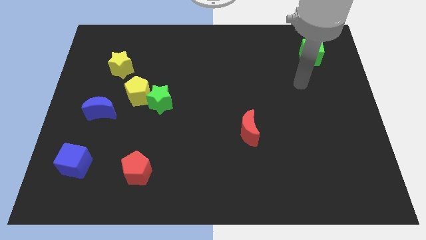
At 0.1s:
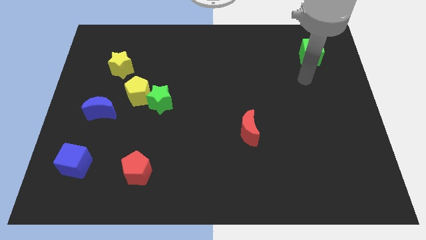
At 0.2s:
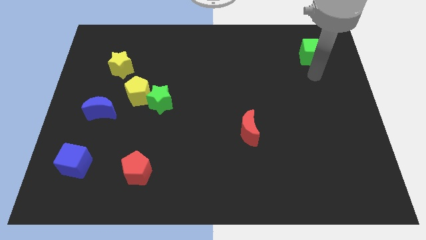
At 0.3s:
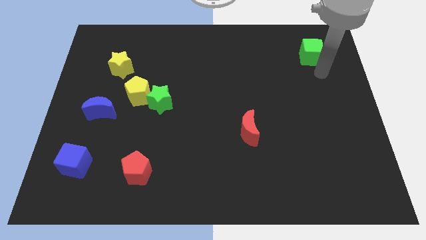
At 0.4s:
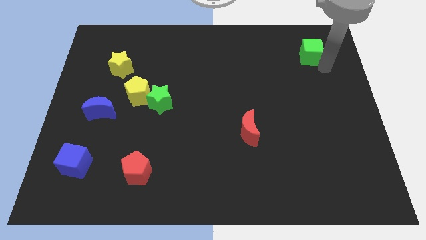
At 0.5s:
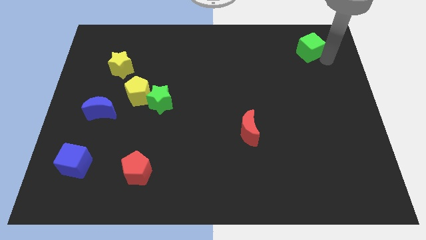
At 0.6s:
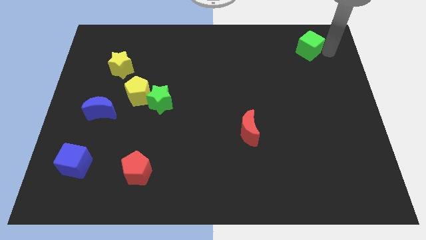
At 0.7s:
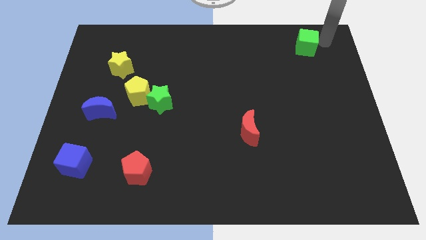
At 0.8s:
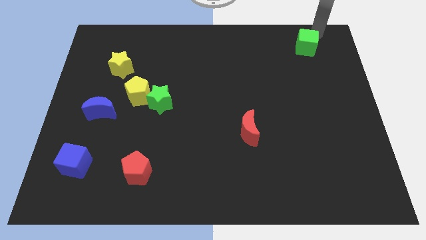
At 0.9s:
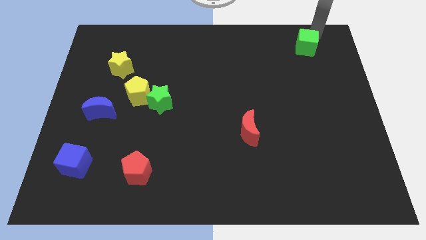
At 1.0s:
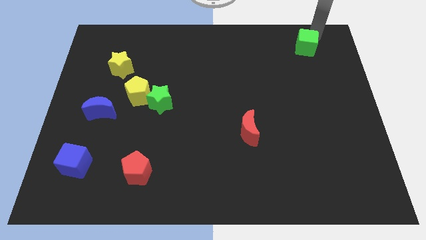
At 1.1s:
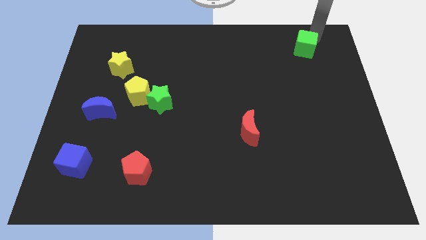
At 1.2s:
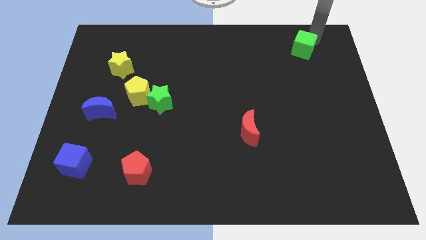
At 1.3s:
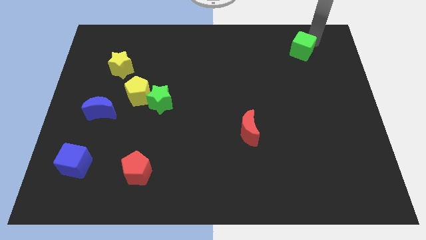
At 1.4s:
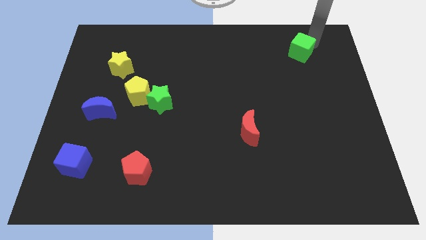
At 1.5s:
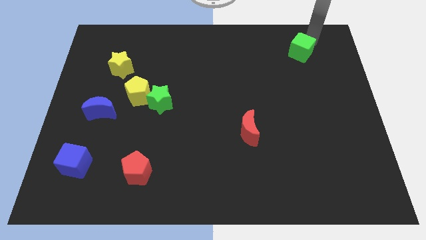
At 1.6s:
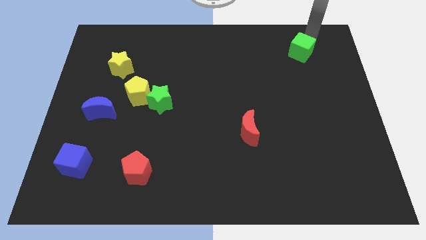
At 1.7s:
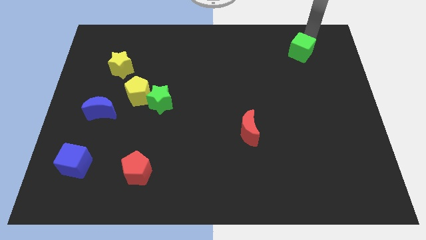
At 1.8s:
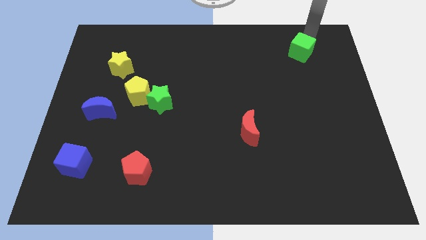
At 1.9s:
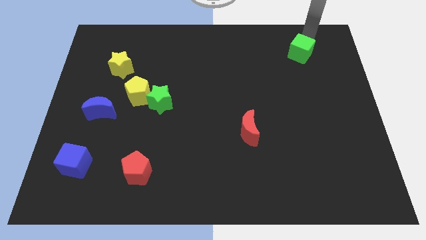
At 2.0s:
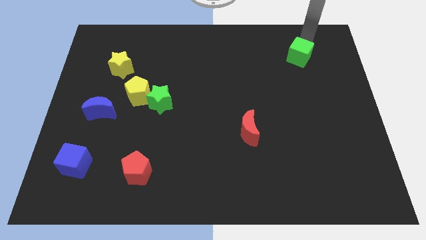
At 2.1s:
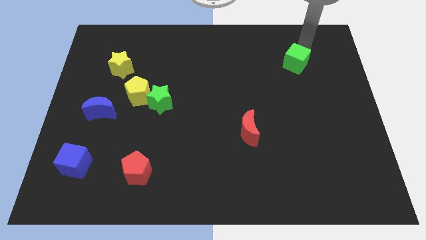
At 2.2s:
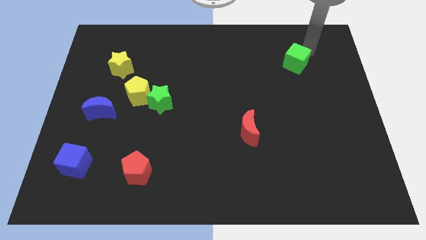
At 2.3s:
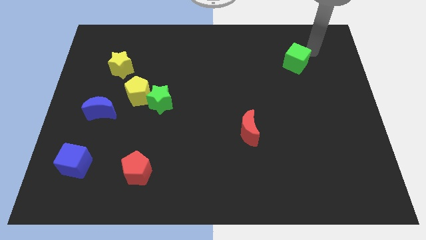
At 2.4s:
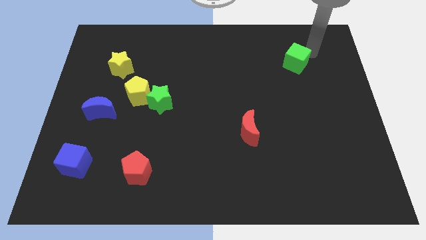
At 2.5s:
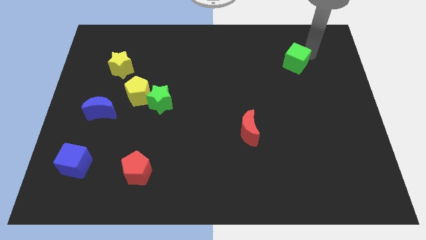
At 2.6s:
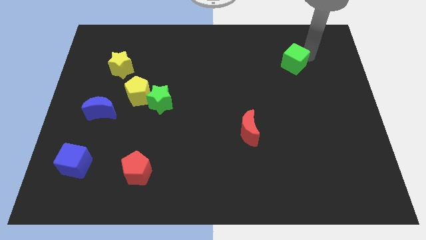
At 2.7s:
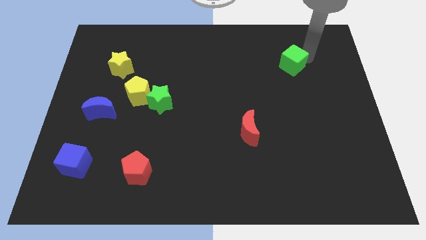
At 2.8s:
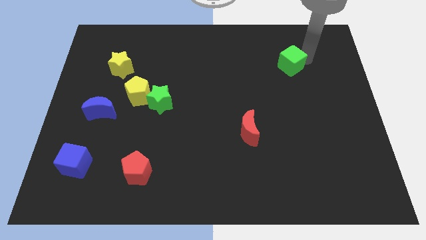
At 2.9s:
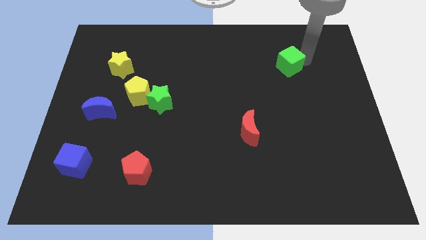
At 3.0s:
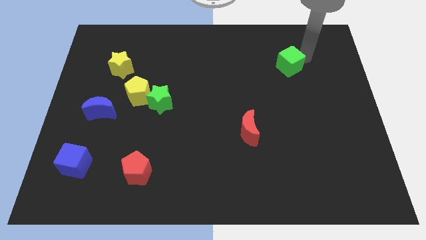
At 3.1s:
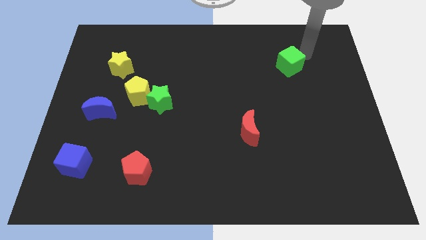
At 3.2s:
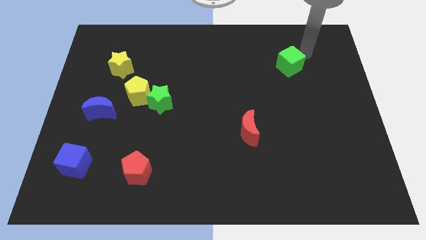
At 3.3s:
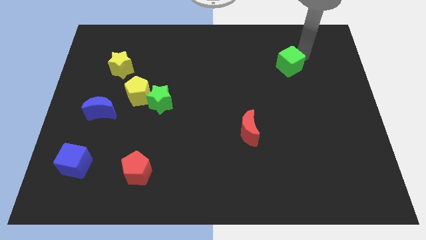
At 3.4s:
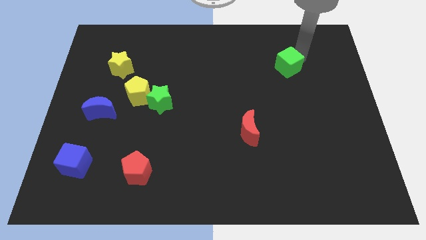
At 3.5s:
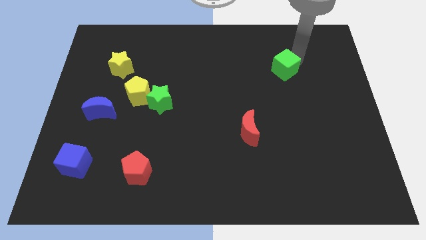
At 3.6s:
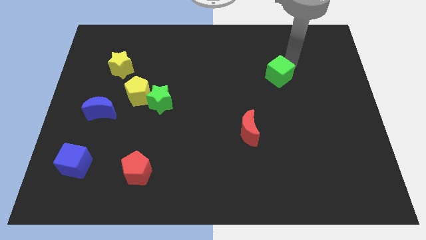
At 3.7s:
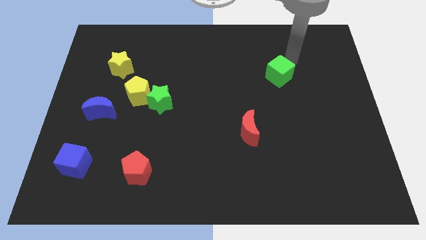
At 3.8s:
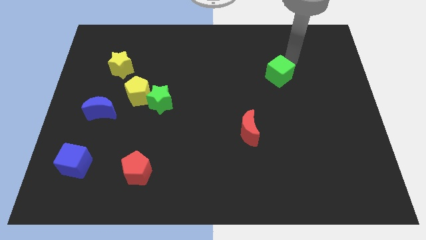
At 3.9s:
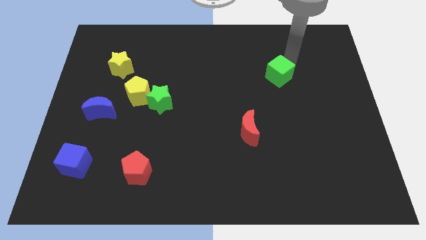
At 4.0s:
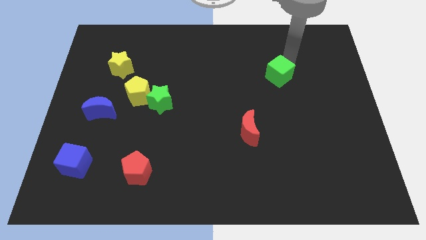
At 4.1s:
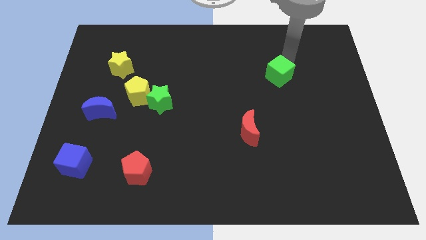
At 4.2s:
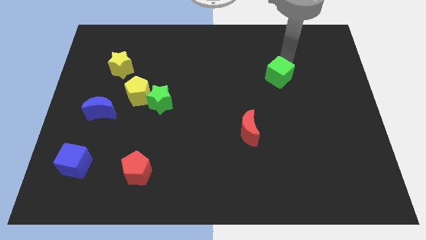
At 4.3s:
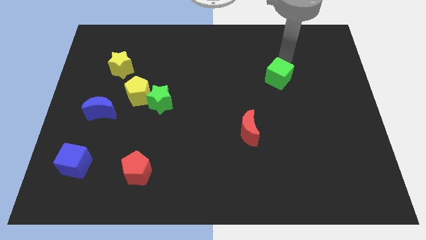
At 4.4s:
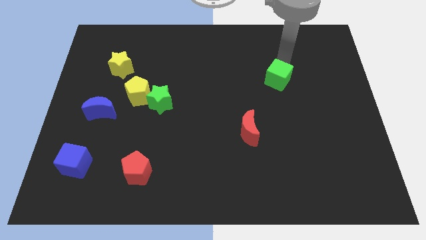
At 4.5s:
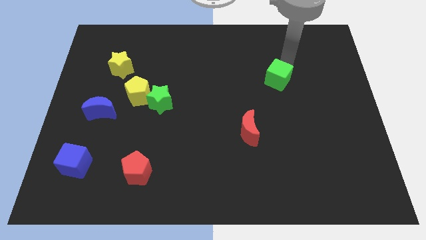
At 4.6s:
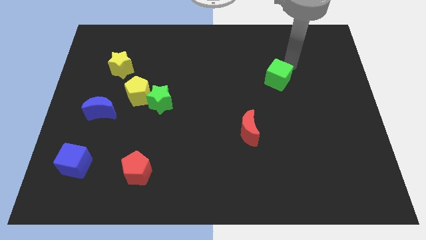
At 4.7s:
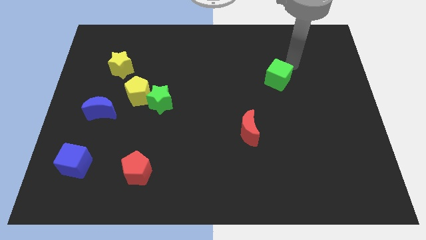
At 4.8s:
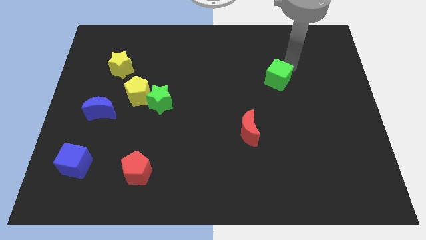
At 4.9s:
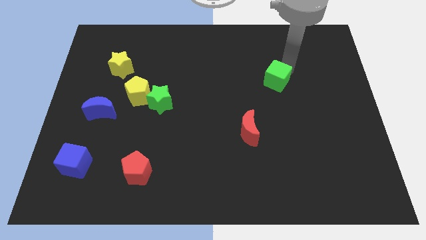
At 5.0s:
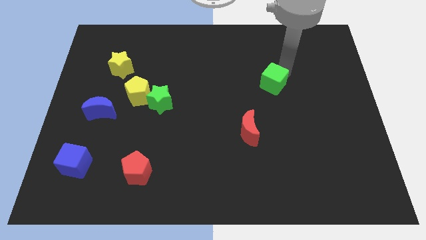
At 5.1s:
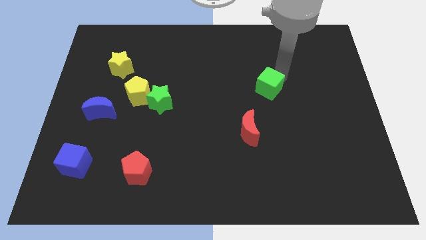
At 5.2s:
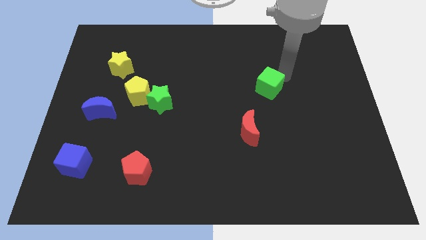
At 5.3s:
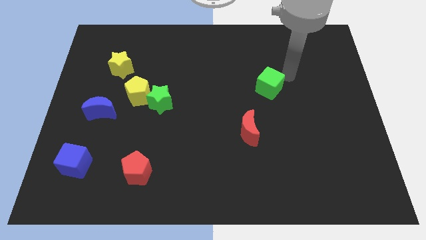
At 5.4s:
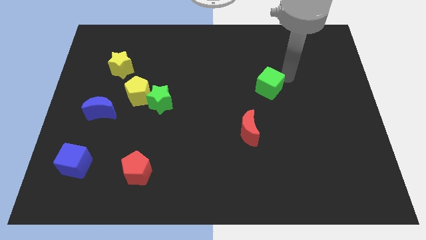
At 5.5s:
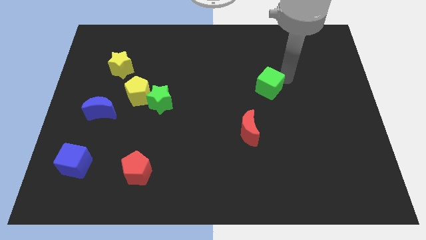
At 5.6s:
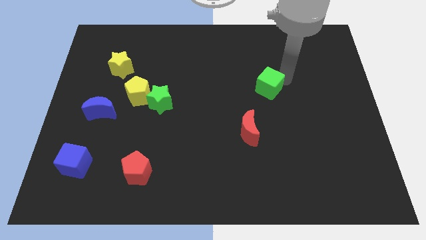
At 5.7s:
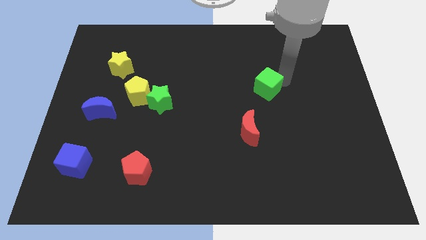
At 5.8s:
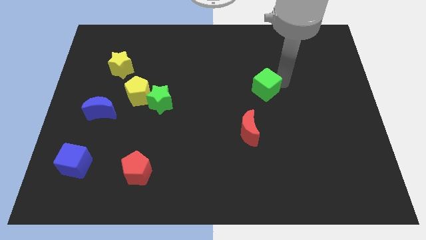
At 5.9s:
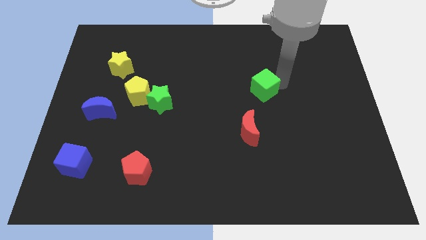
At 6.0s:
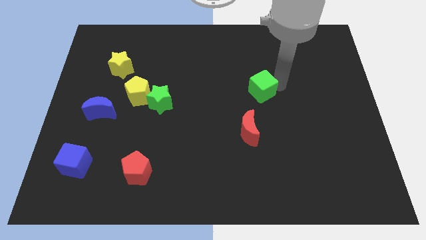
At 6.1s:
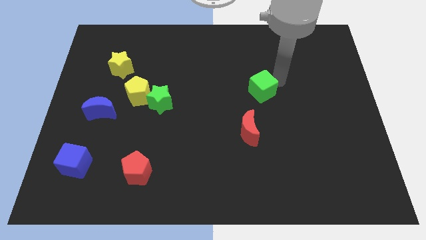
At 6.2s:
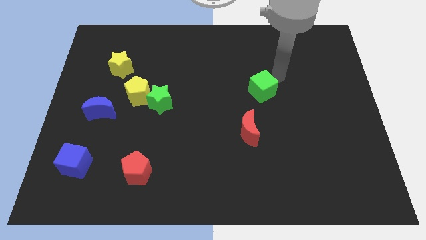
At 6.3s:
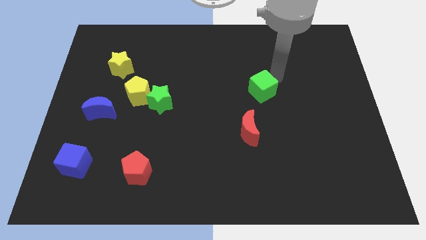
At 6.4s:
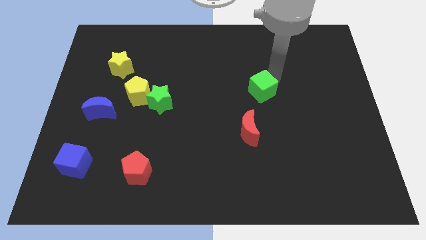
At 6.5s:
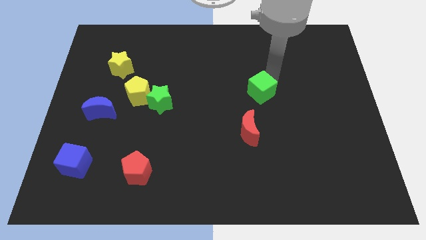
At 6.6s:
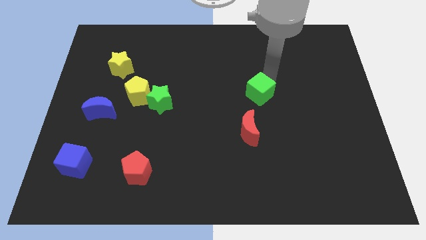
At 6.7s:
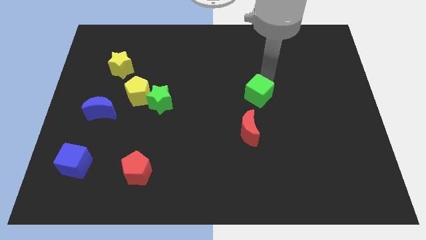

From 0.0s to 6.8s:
push the green cube down and to the left diagonally

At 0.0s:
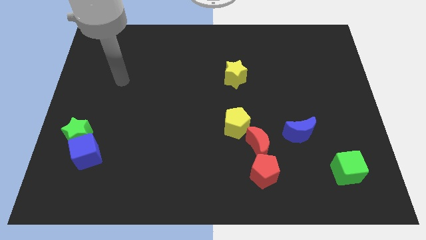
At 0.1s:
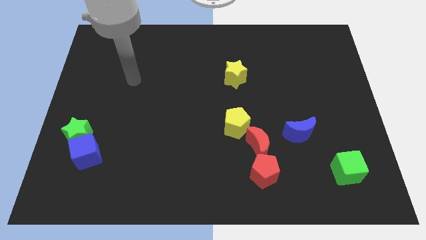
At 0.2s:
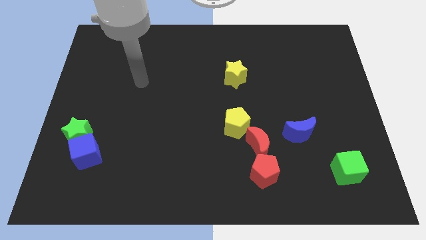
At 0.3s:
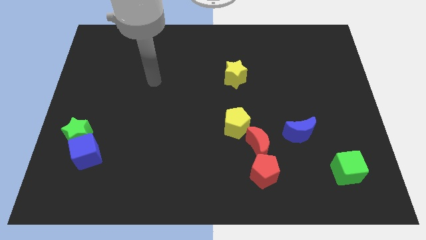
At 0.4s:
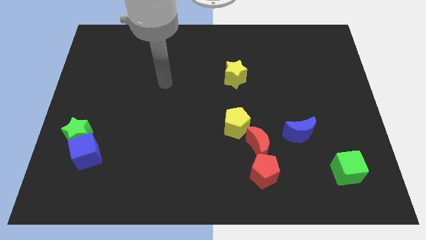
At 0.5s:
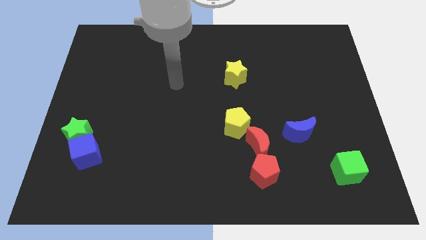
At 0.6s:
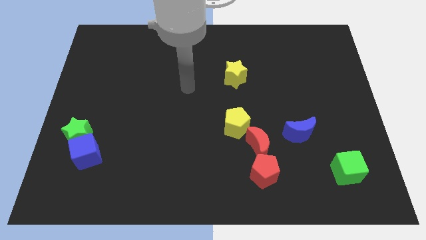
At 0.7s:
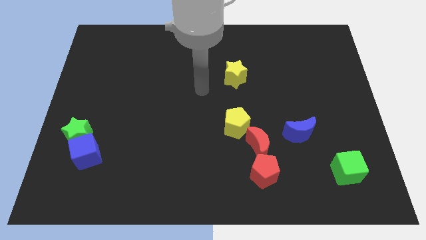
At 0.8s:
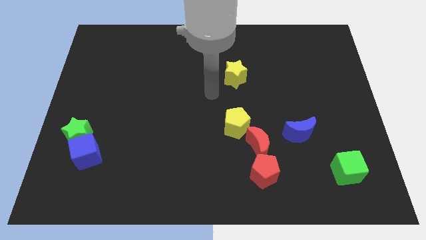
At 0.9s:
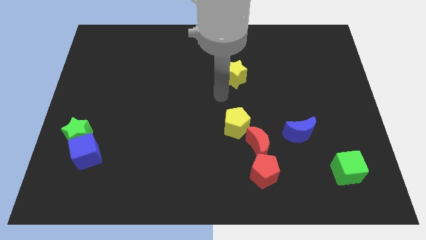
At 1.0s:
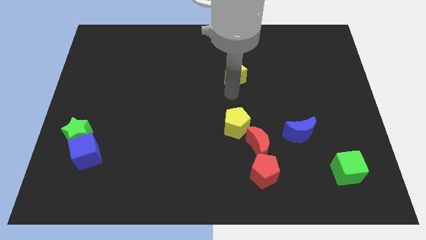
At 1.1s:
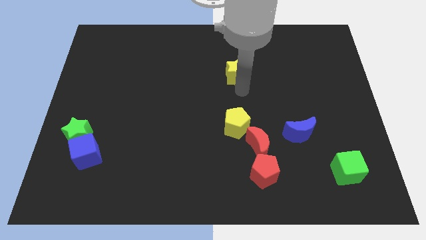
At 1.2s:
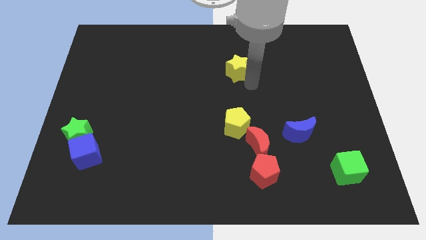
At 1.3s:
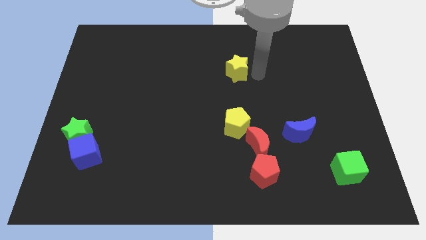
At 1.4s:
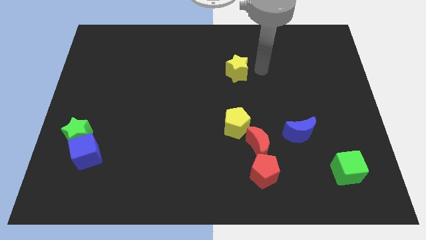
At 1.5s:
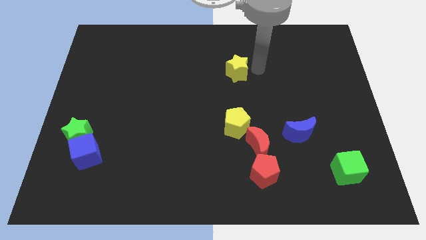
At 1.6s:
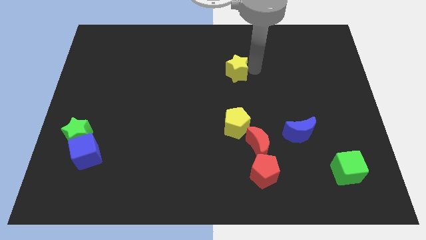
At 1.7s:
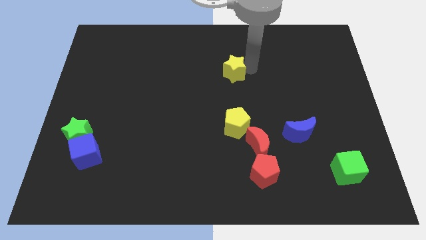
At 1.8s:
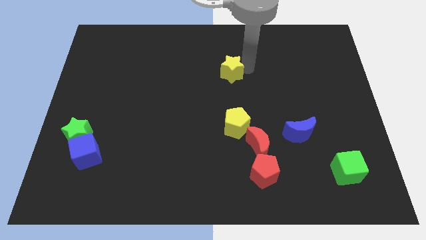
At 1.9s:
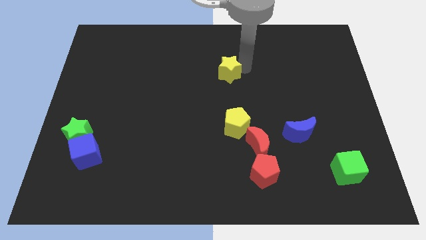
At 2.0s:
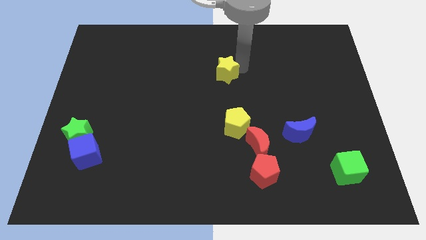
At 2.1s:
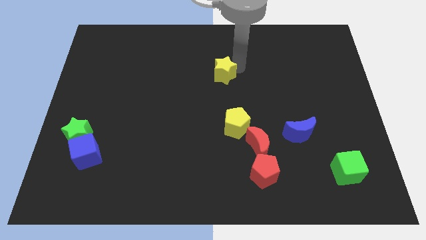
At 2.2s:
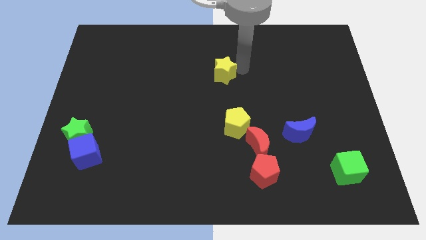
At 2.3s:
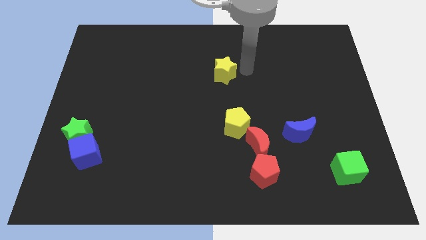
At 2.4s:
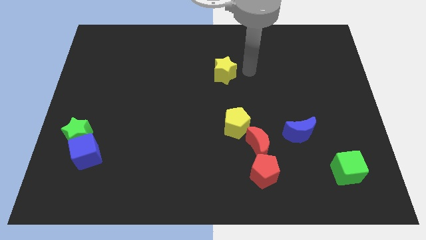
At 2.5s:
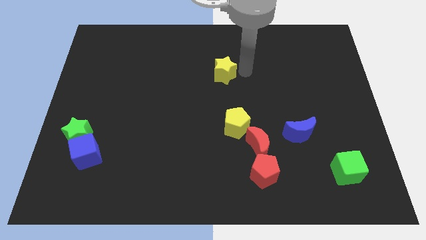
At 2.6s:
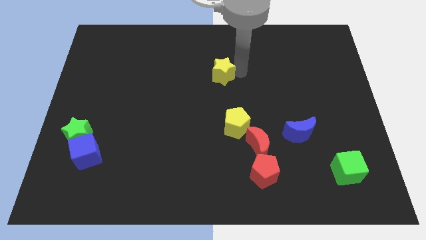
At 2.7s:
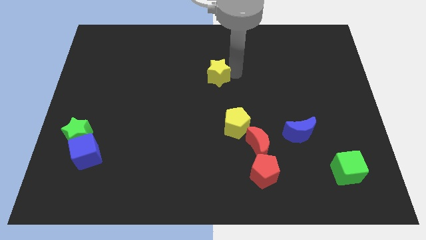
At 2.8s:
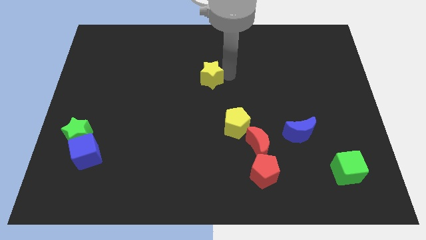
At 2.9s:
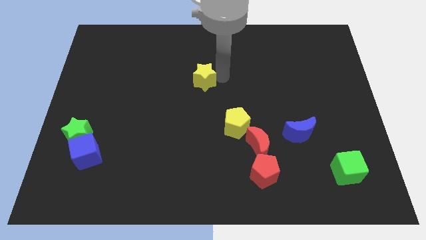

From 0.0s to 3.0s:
slightly slide the yellow star to the left
